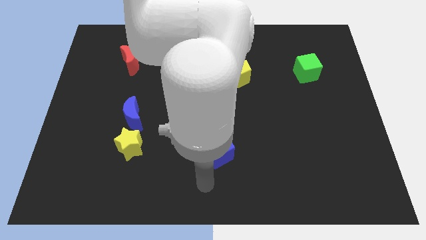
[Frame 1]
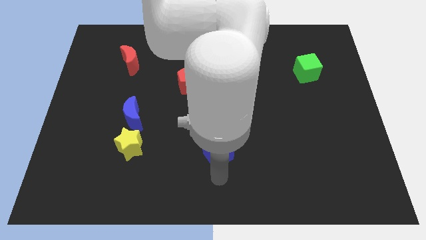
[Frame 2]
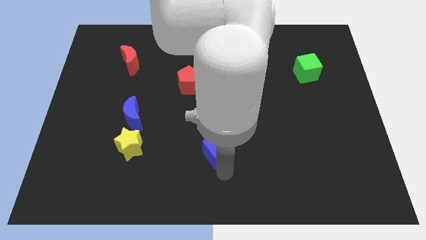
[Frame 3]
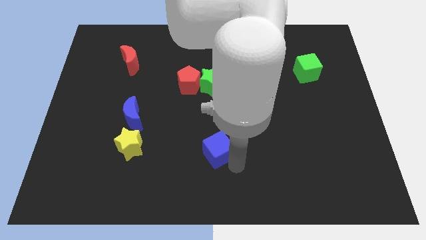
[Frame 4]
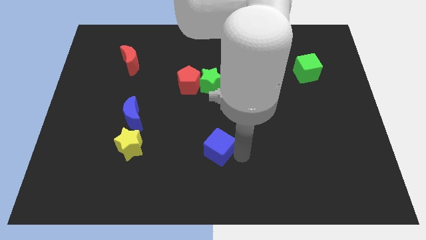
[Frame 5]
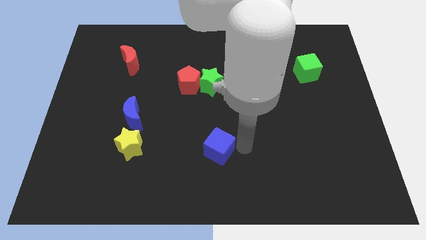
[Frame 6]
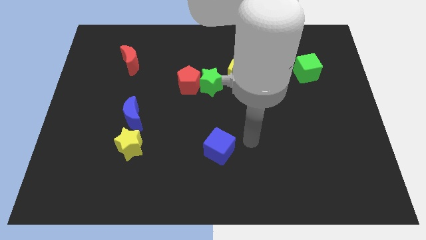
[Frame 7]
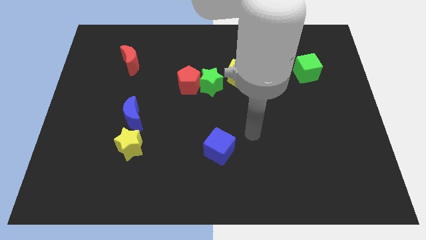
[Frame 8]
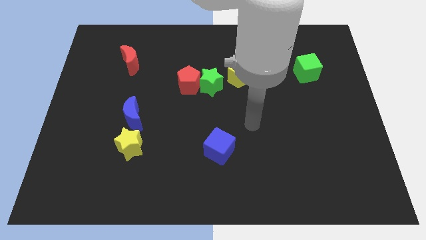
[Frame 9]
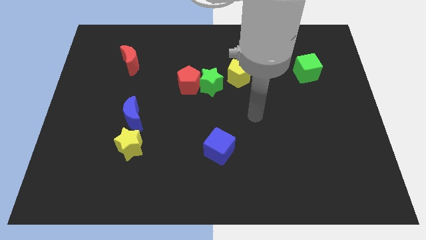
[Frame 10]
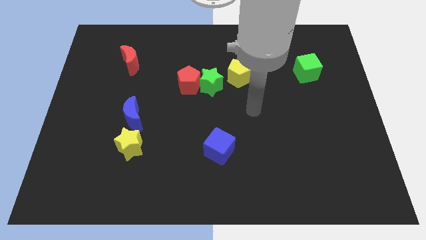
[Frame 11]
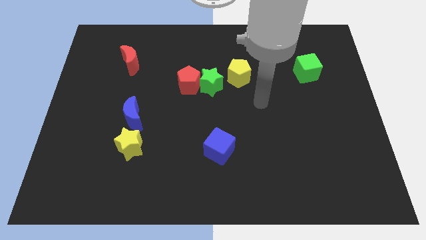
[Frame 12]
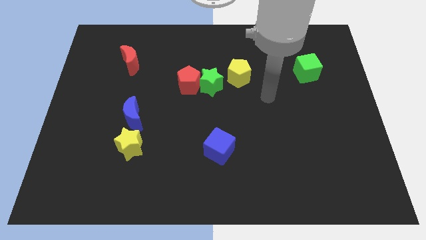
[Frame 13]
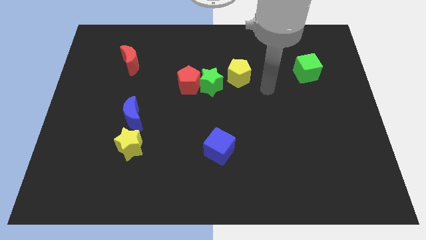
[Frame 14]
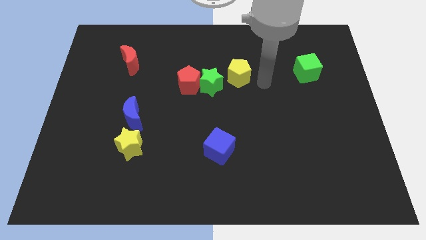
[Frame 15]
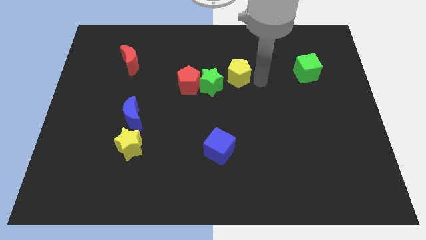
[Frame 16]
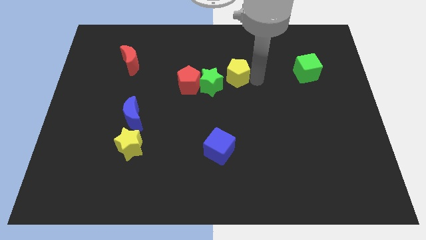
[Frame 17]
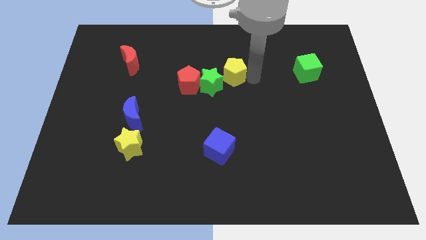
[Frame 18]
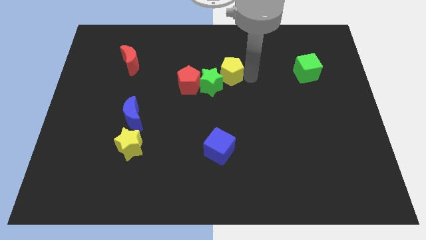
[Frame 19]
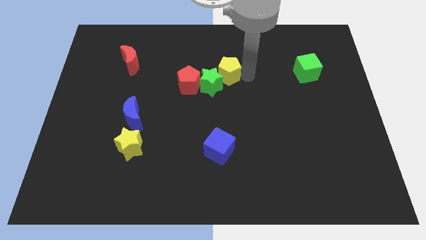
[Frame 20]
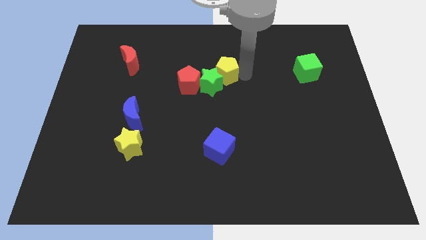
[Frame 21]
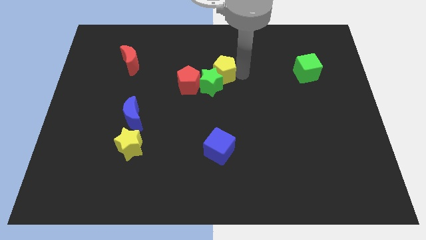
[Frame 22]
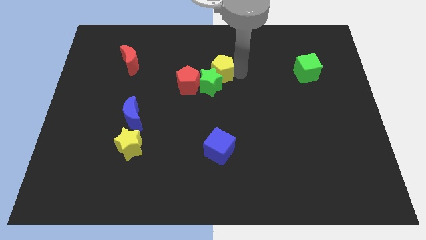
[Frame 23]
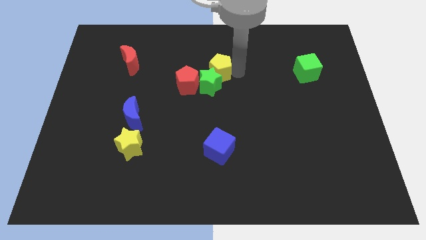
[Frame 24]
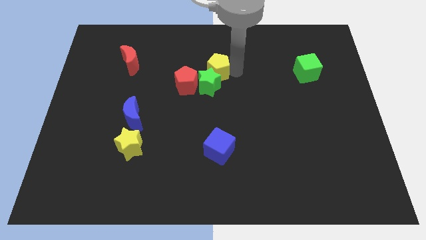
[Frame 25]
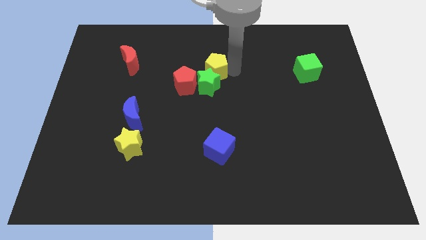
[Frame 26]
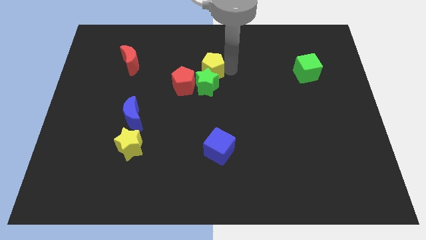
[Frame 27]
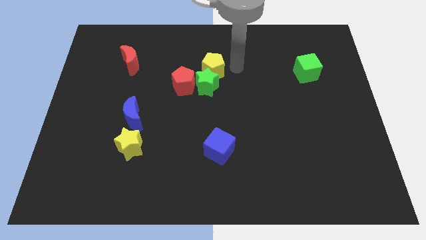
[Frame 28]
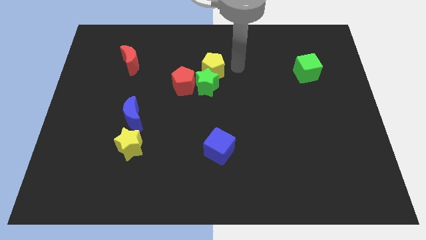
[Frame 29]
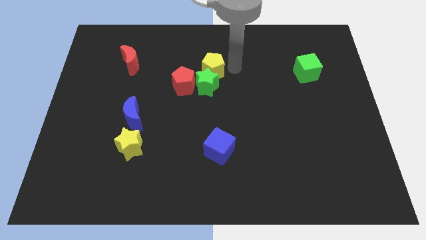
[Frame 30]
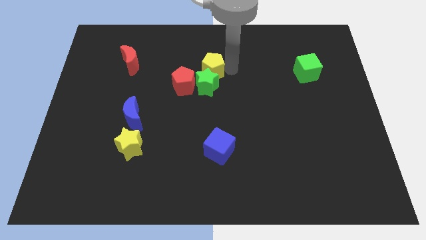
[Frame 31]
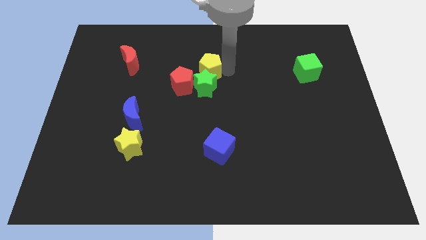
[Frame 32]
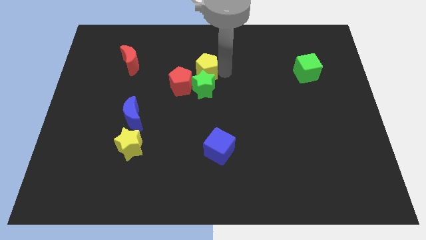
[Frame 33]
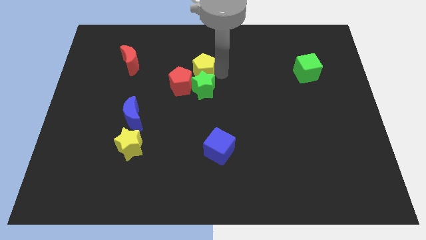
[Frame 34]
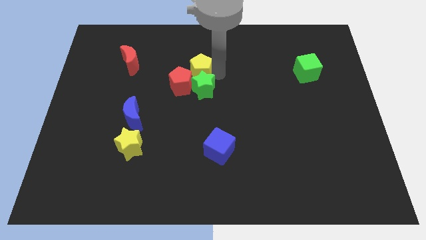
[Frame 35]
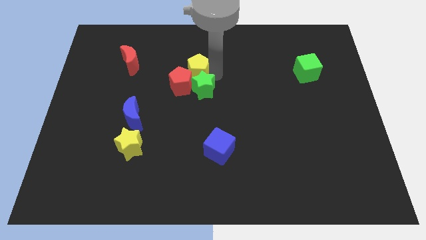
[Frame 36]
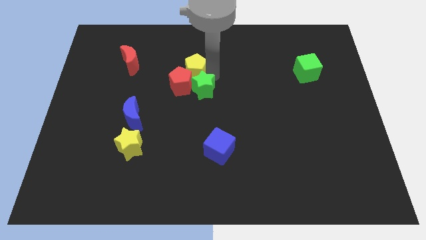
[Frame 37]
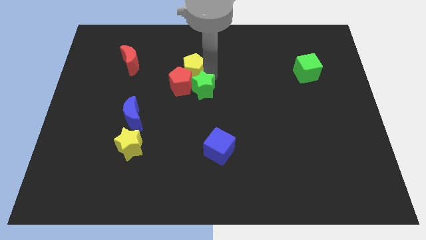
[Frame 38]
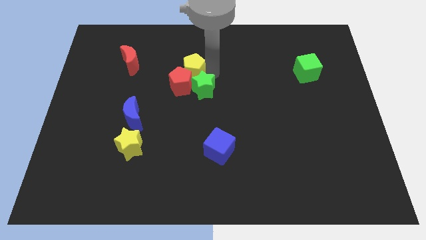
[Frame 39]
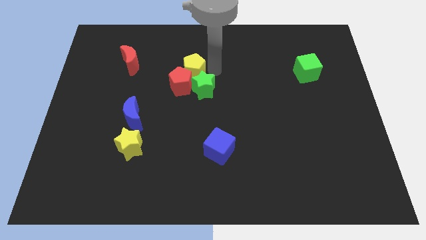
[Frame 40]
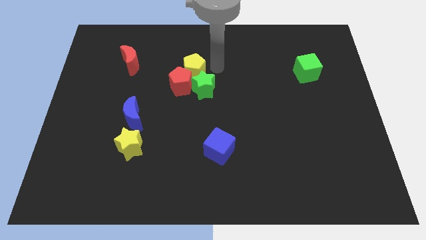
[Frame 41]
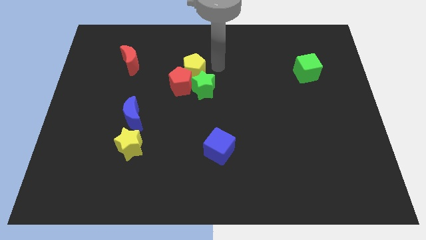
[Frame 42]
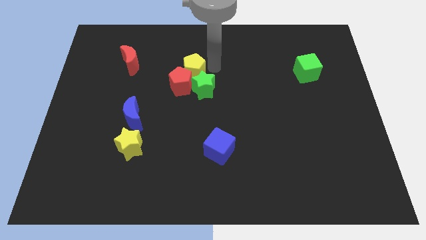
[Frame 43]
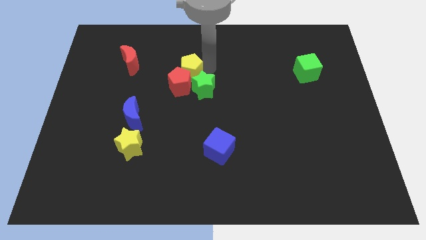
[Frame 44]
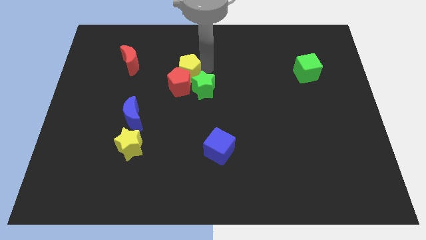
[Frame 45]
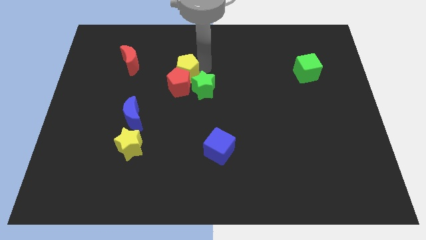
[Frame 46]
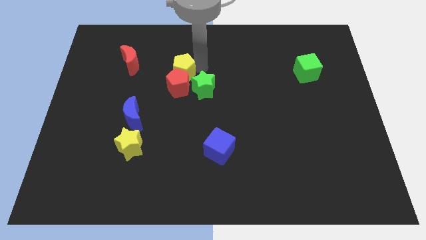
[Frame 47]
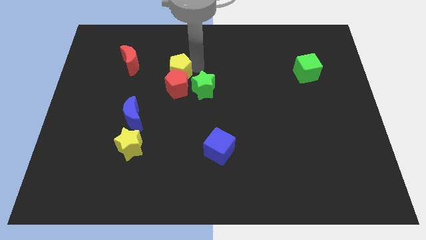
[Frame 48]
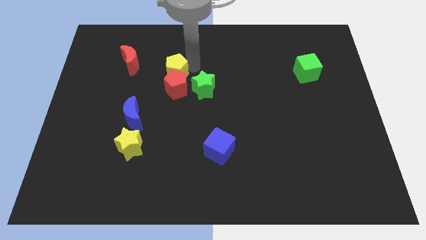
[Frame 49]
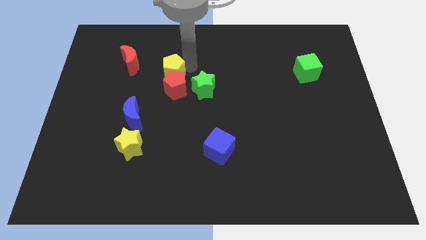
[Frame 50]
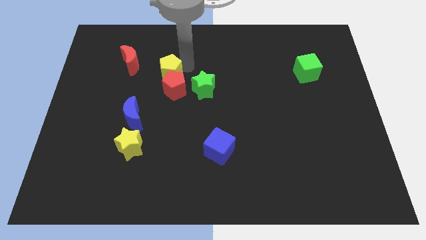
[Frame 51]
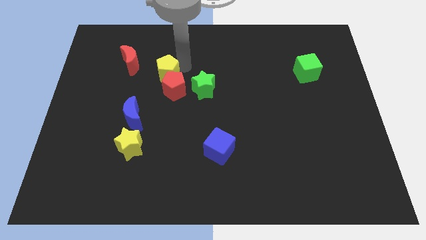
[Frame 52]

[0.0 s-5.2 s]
push the yellow pentagon diagonally down and to the right of the red moon

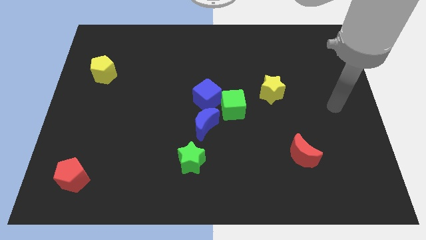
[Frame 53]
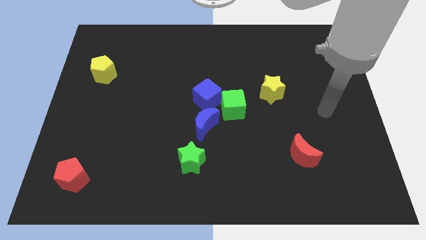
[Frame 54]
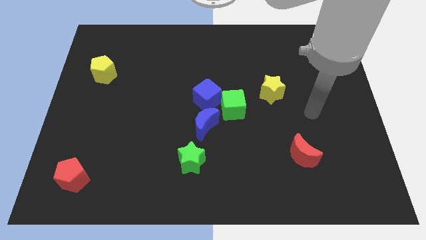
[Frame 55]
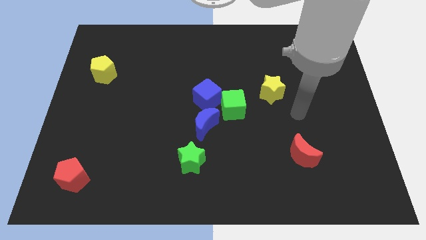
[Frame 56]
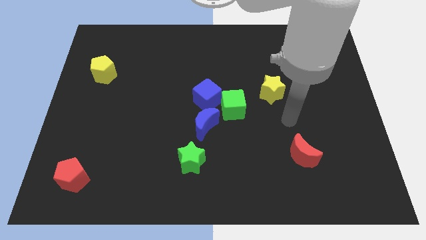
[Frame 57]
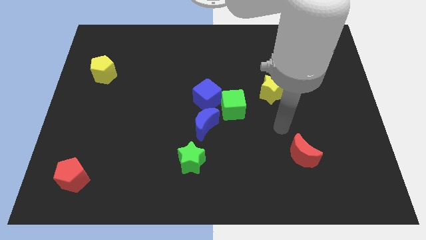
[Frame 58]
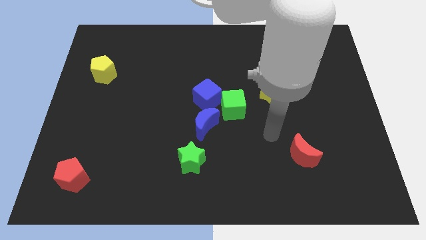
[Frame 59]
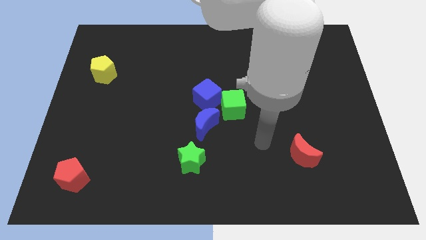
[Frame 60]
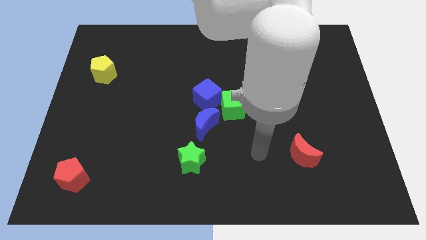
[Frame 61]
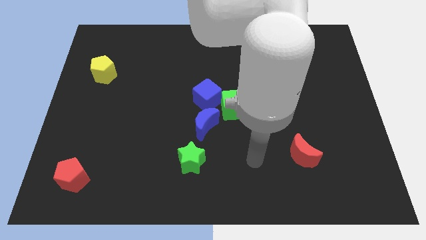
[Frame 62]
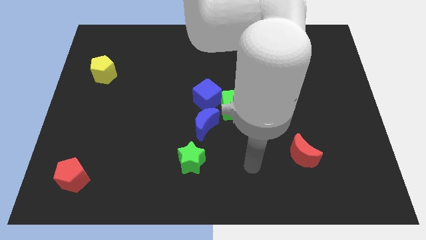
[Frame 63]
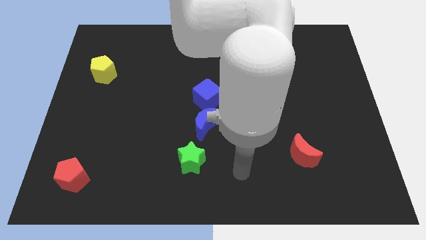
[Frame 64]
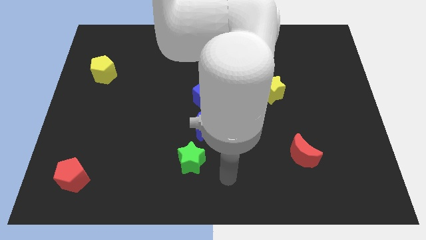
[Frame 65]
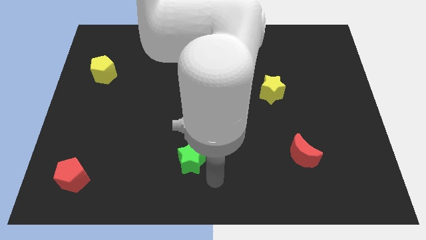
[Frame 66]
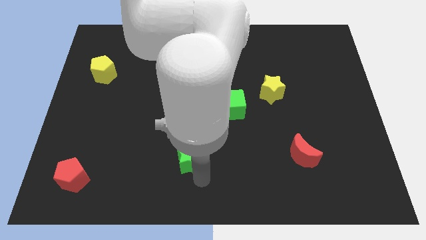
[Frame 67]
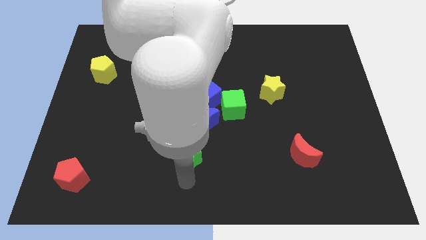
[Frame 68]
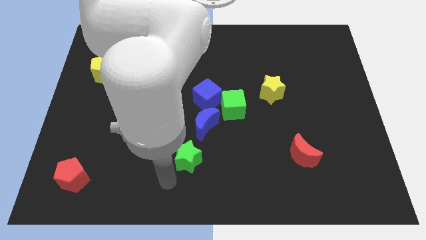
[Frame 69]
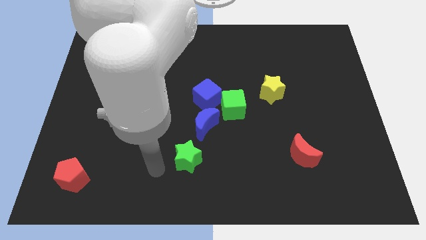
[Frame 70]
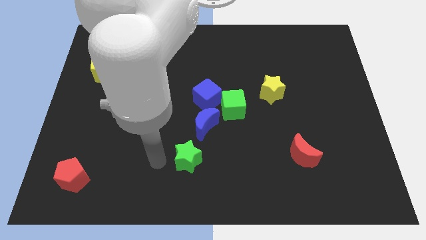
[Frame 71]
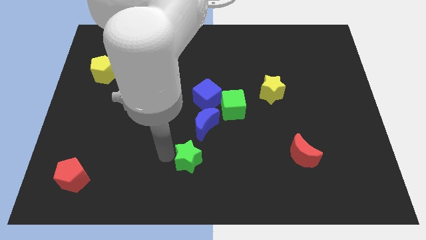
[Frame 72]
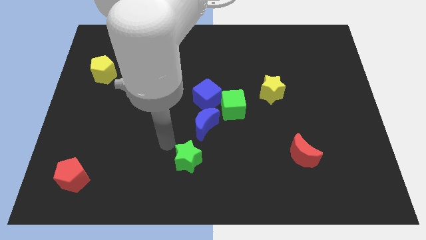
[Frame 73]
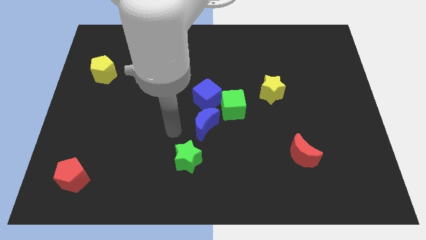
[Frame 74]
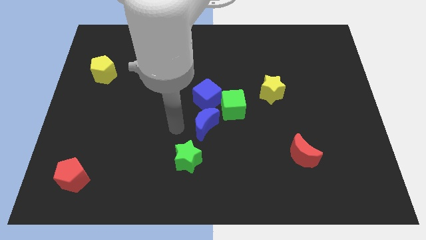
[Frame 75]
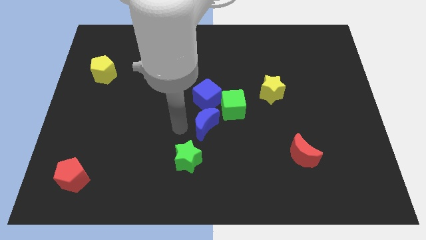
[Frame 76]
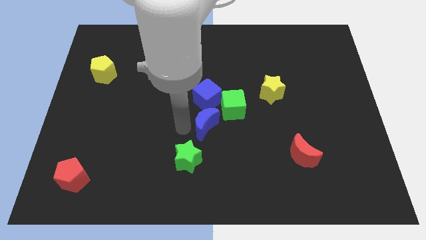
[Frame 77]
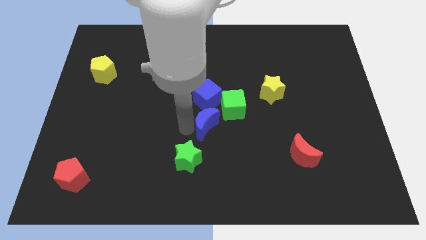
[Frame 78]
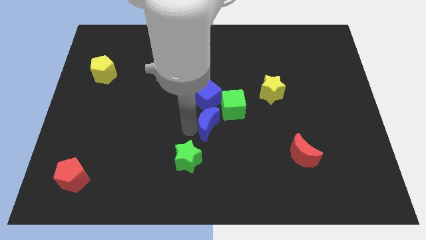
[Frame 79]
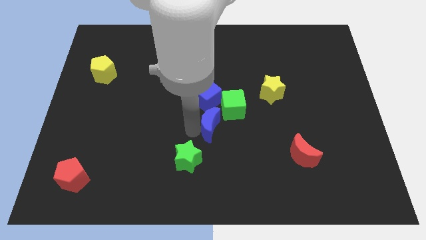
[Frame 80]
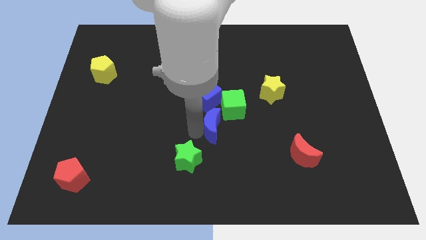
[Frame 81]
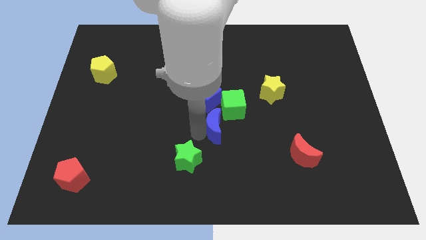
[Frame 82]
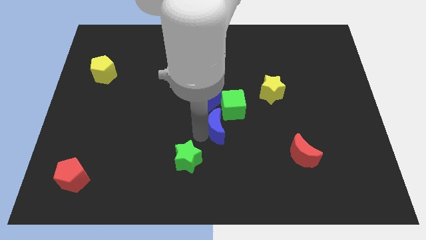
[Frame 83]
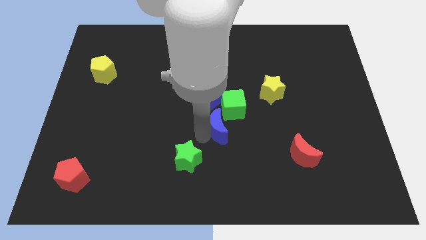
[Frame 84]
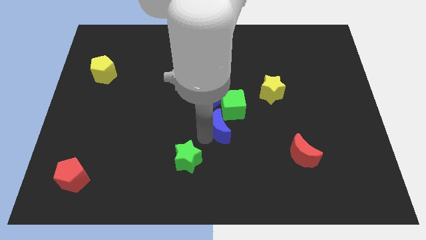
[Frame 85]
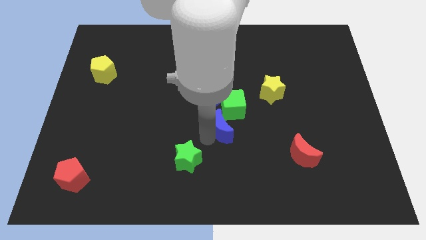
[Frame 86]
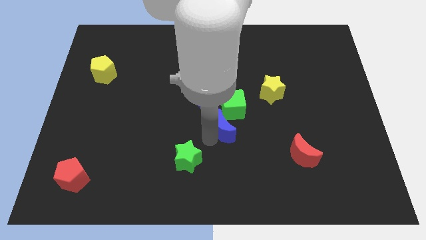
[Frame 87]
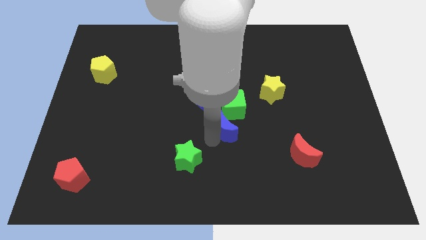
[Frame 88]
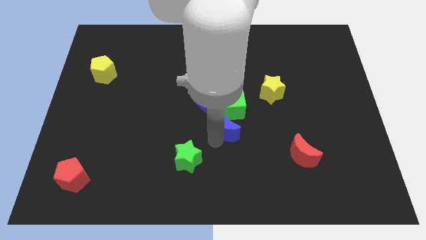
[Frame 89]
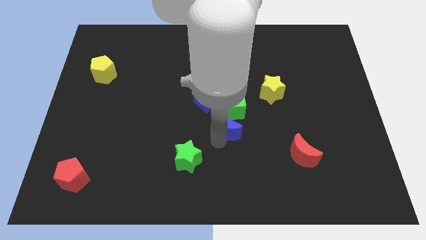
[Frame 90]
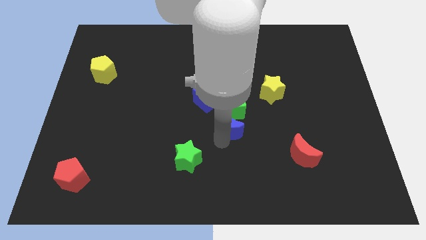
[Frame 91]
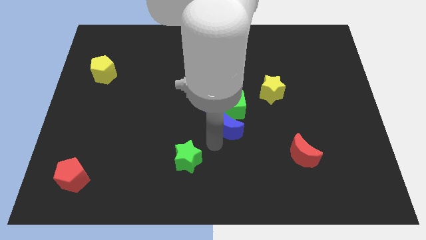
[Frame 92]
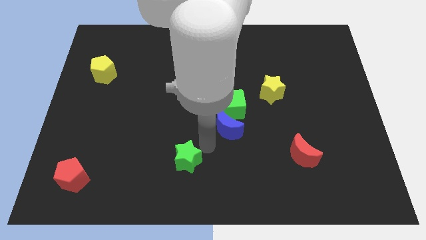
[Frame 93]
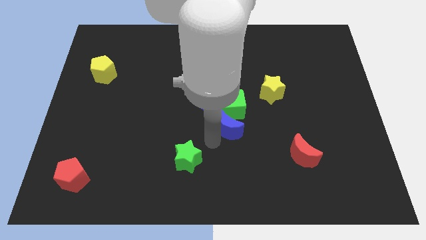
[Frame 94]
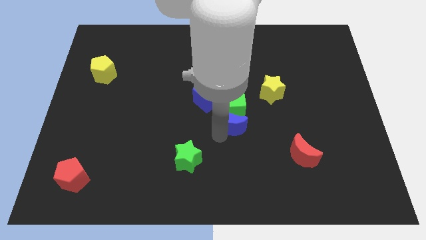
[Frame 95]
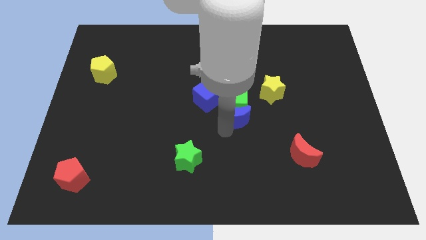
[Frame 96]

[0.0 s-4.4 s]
move the blue moon to the bottom left of the yellow star
